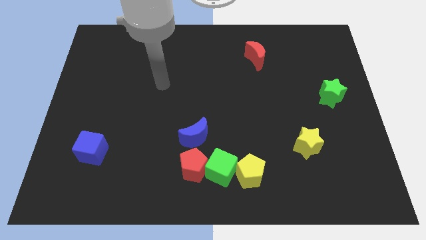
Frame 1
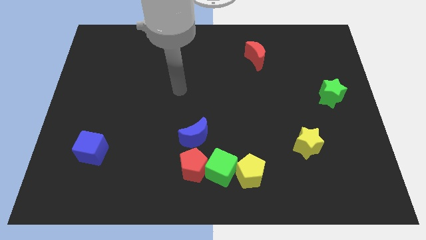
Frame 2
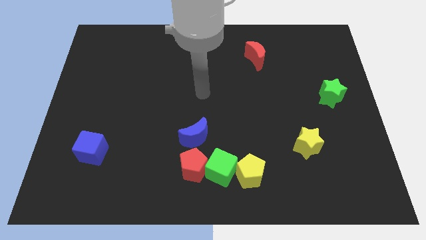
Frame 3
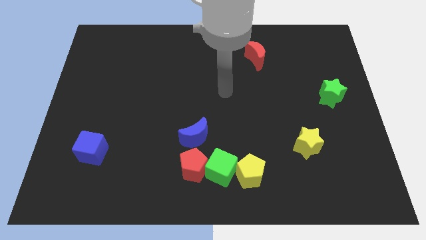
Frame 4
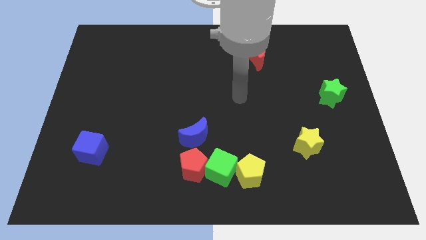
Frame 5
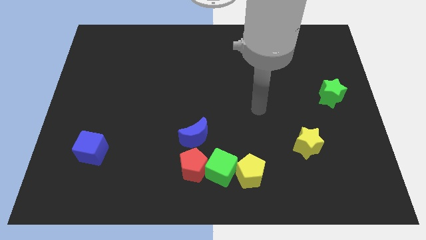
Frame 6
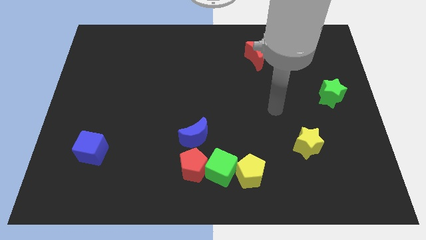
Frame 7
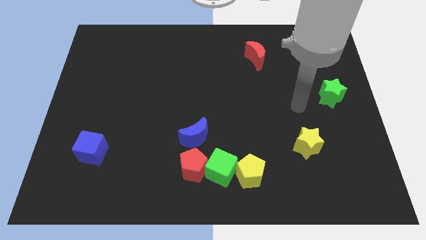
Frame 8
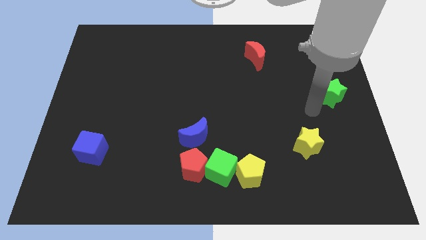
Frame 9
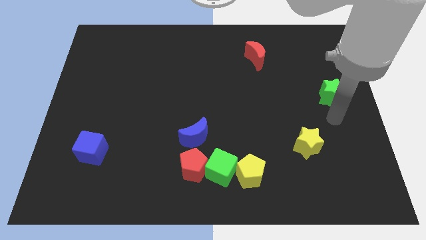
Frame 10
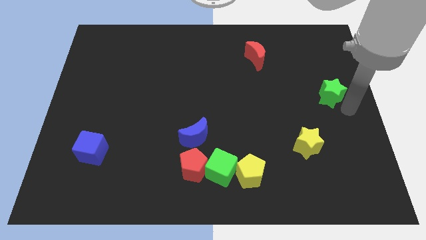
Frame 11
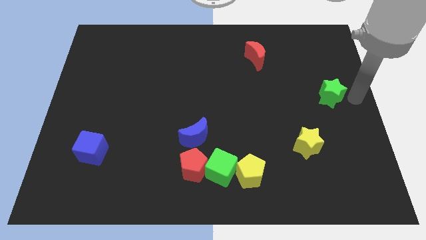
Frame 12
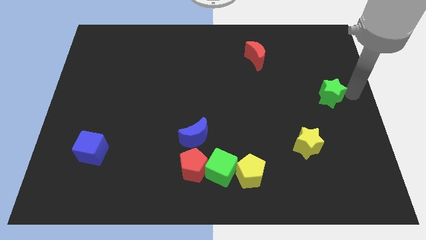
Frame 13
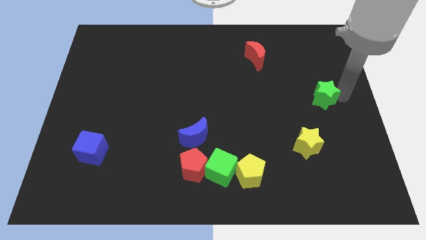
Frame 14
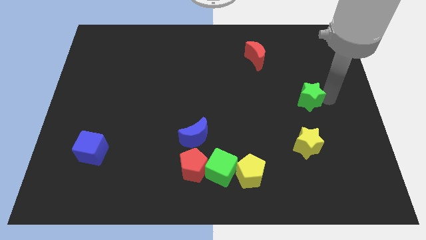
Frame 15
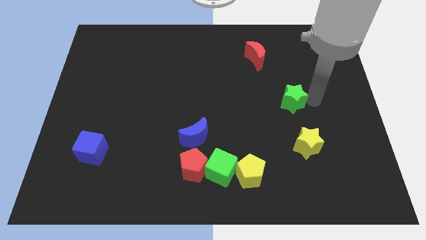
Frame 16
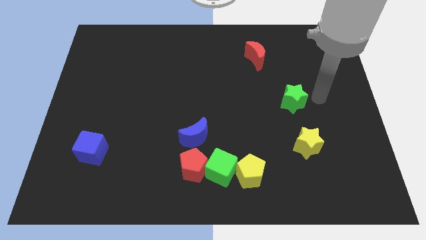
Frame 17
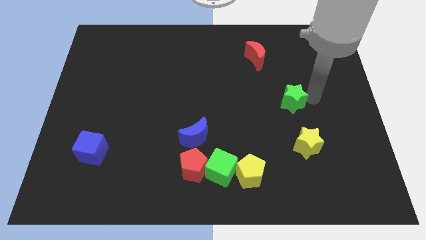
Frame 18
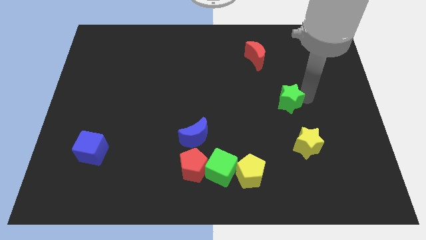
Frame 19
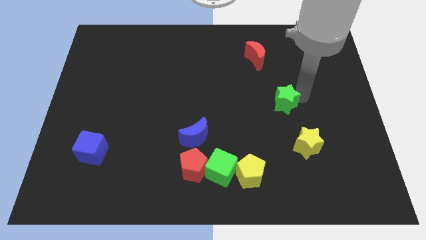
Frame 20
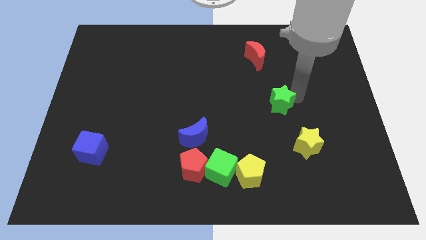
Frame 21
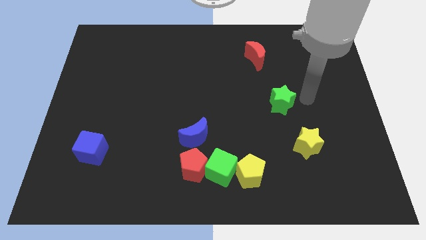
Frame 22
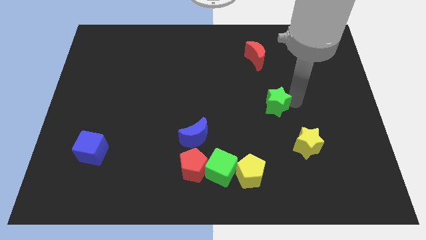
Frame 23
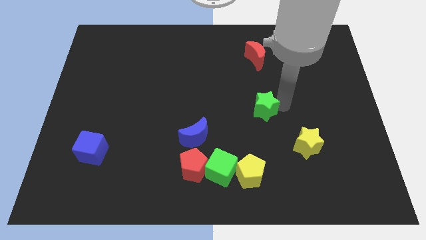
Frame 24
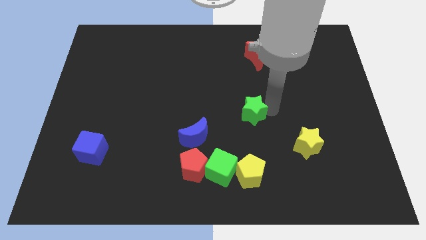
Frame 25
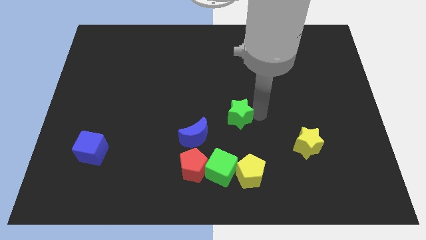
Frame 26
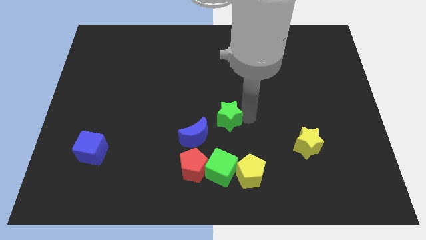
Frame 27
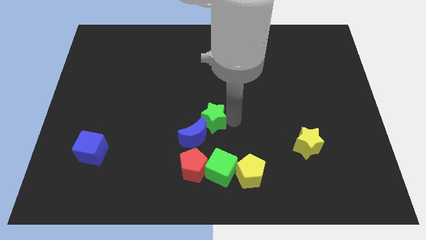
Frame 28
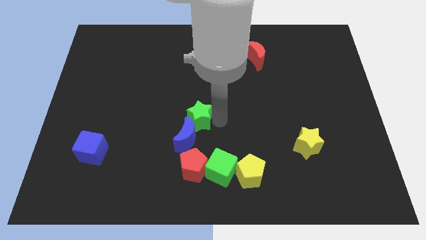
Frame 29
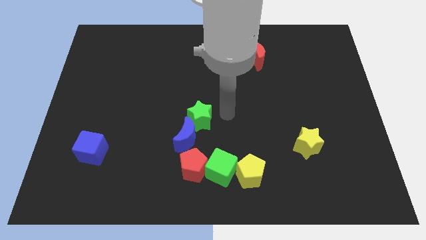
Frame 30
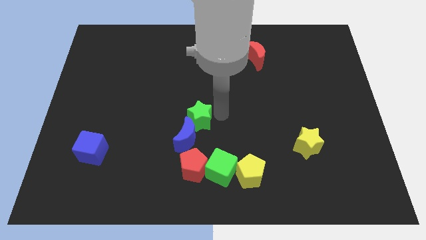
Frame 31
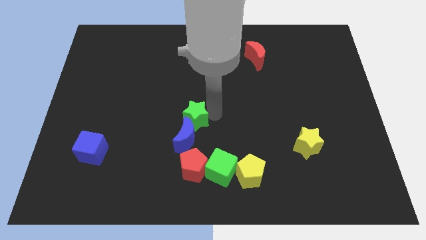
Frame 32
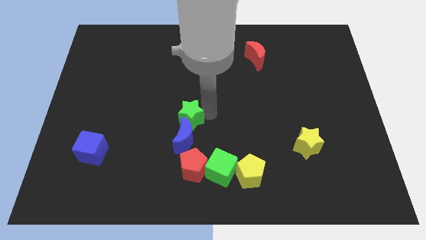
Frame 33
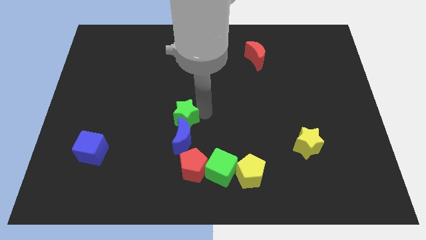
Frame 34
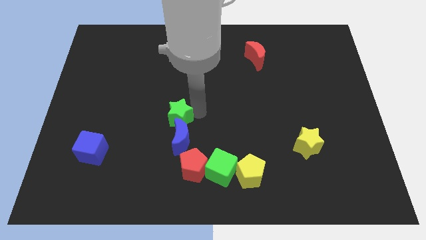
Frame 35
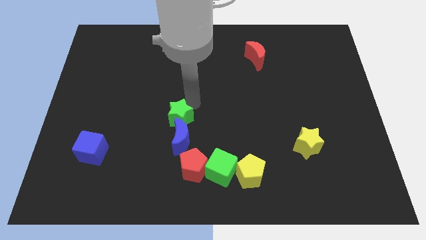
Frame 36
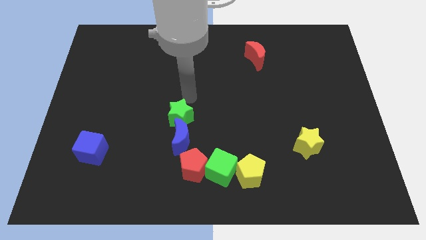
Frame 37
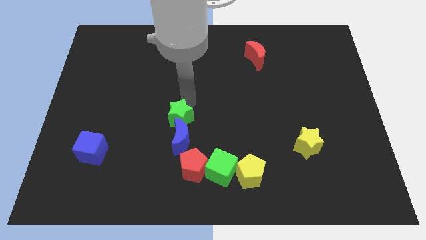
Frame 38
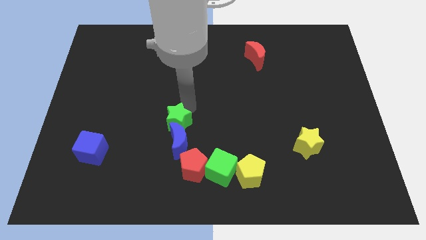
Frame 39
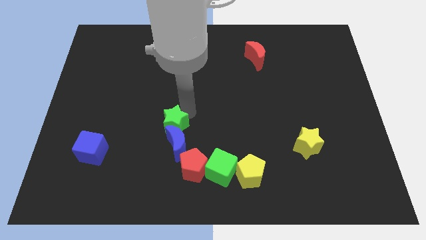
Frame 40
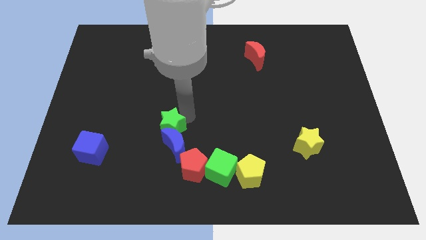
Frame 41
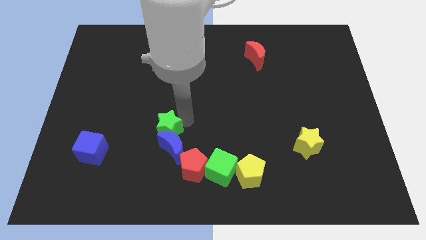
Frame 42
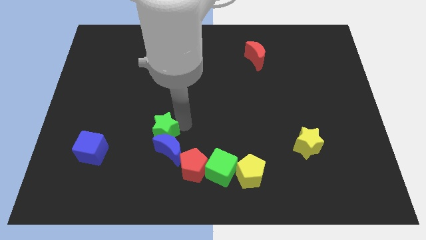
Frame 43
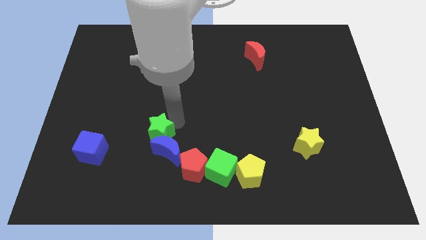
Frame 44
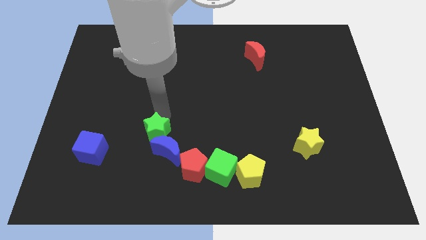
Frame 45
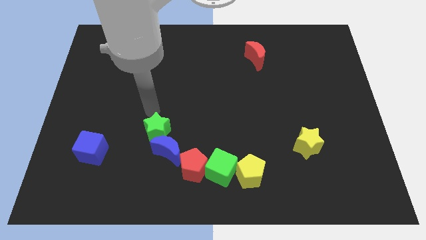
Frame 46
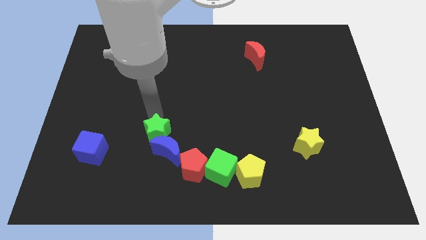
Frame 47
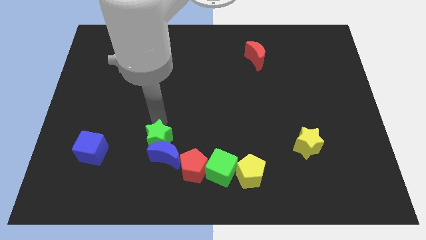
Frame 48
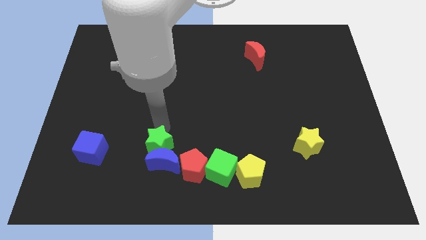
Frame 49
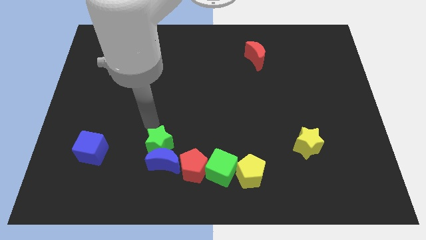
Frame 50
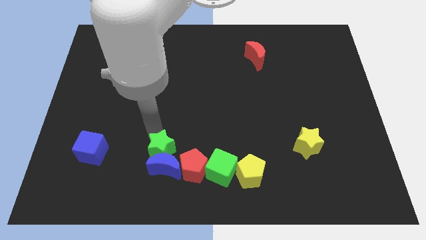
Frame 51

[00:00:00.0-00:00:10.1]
put the green star to the left side of the green cube

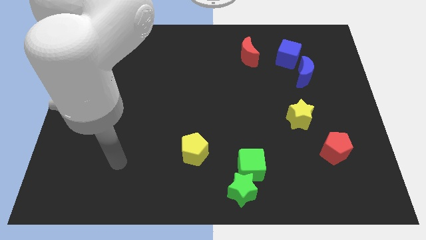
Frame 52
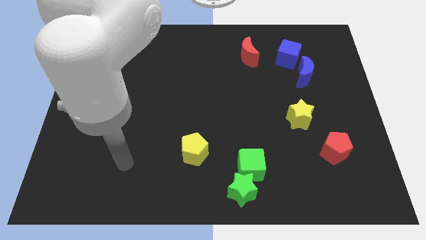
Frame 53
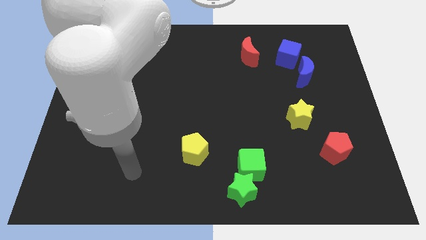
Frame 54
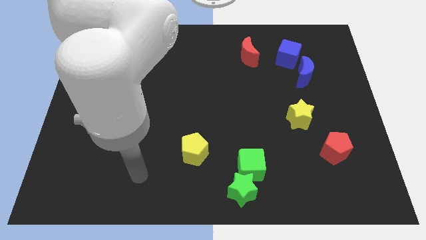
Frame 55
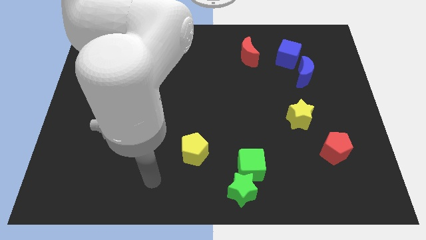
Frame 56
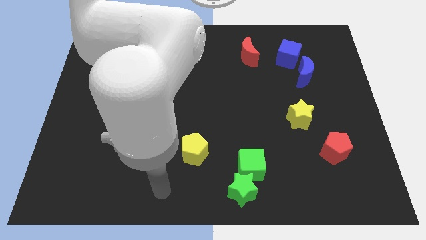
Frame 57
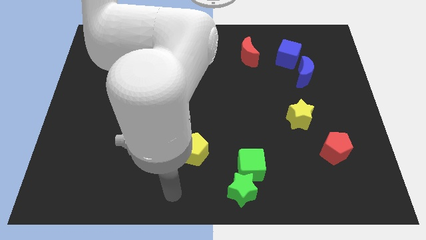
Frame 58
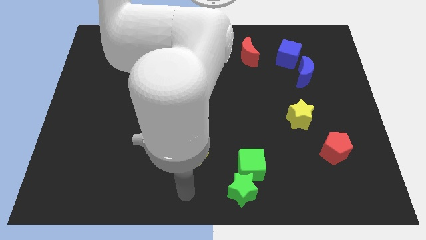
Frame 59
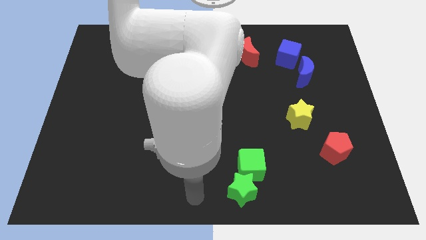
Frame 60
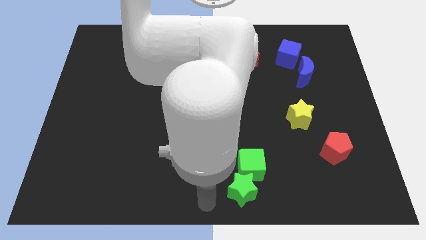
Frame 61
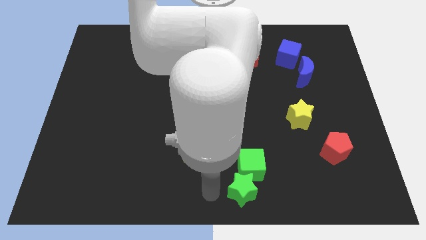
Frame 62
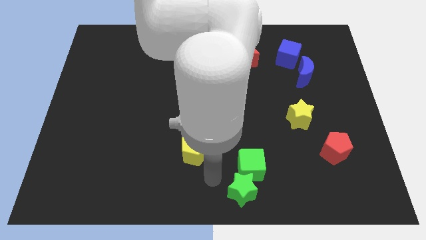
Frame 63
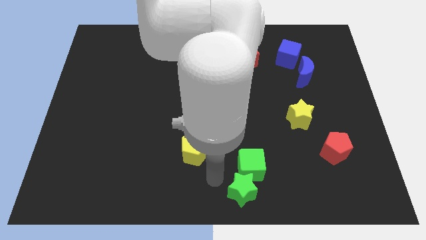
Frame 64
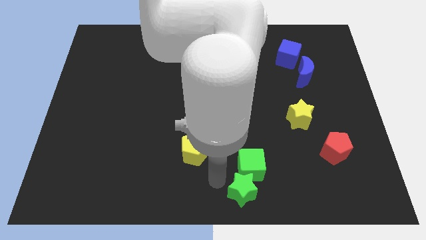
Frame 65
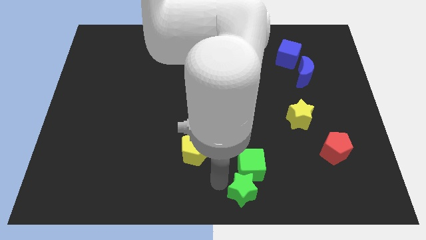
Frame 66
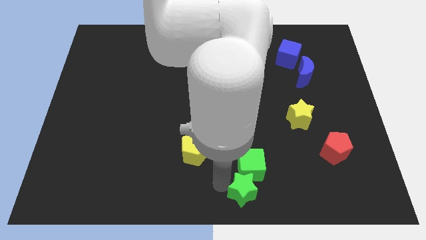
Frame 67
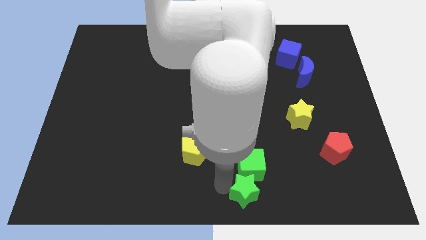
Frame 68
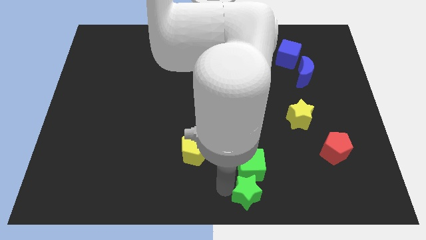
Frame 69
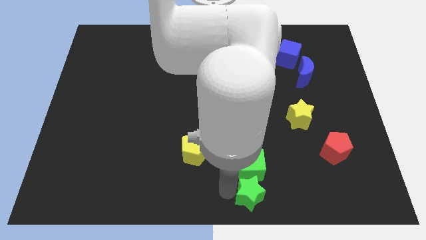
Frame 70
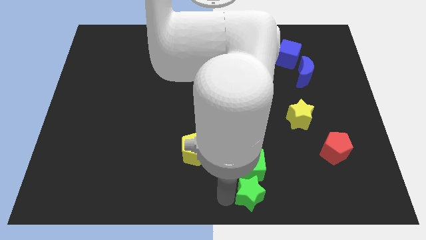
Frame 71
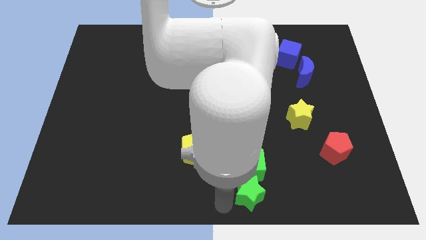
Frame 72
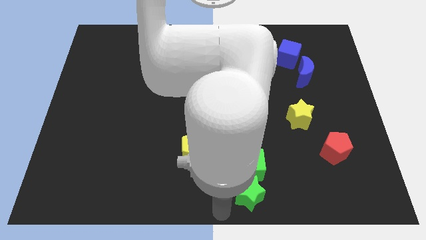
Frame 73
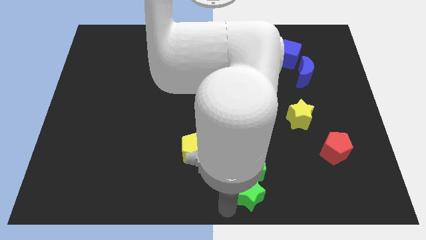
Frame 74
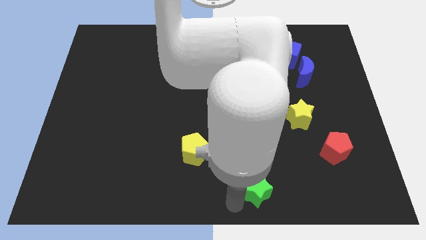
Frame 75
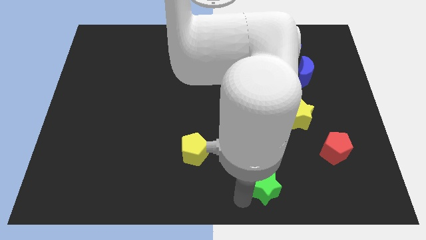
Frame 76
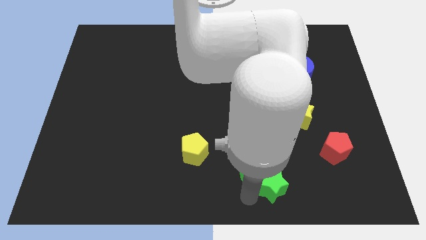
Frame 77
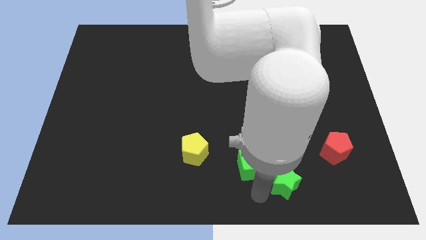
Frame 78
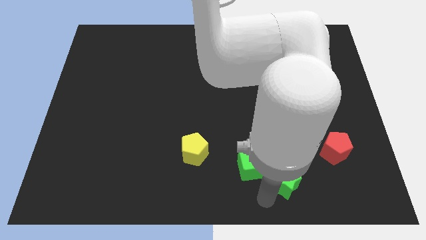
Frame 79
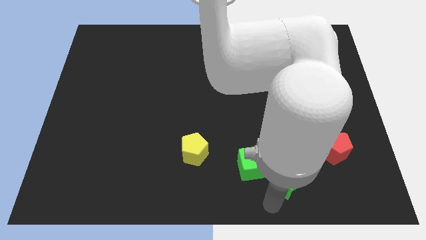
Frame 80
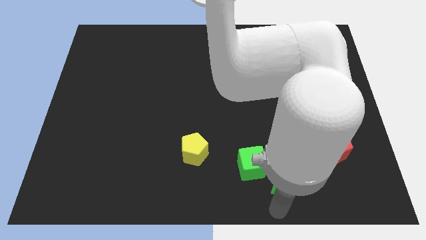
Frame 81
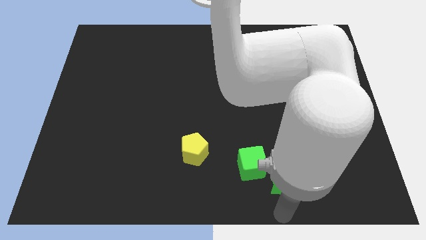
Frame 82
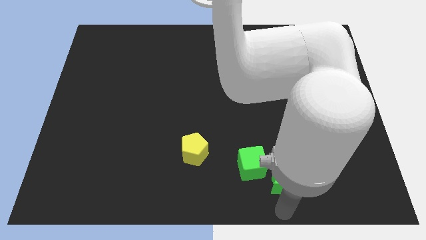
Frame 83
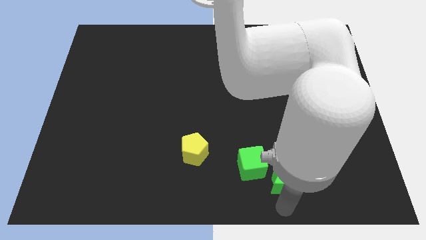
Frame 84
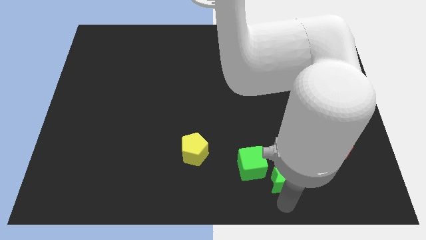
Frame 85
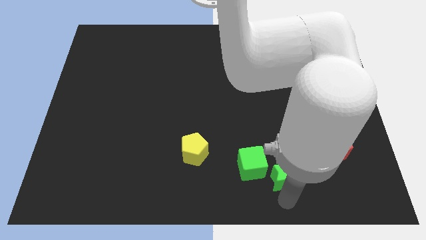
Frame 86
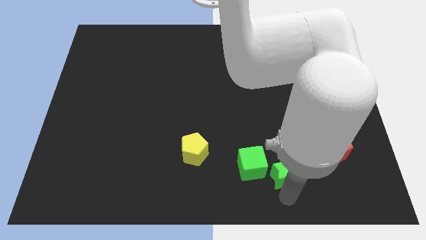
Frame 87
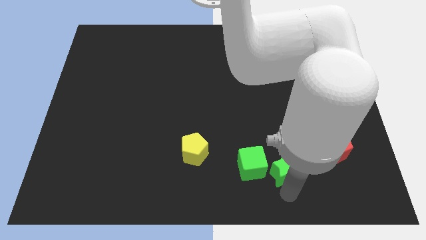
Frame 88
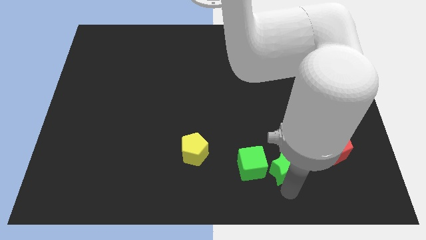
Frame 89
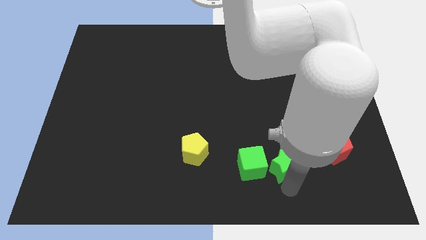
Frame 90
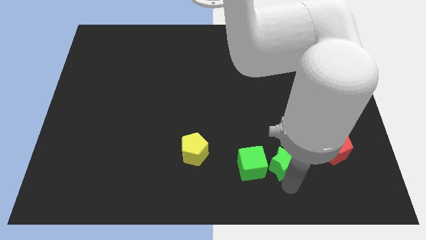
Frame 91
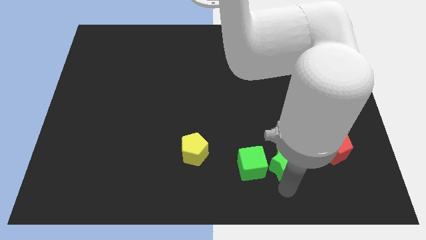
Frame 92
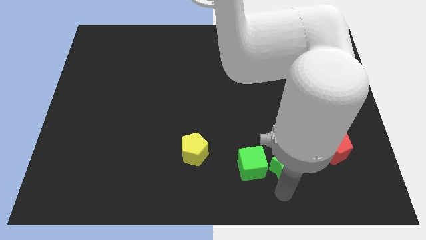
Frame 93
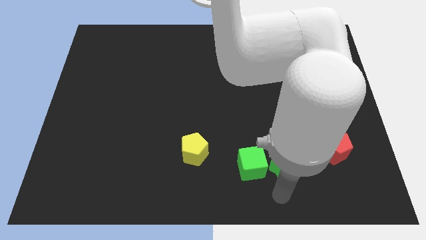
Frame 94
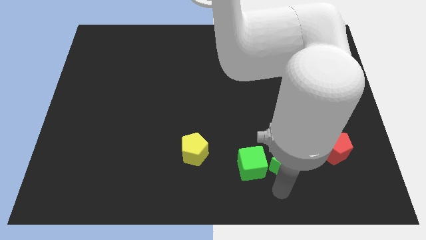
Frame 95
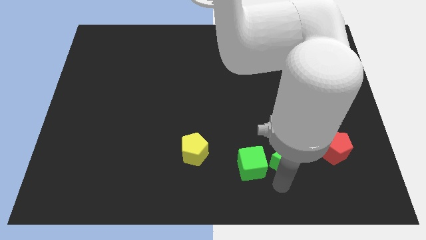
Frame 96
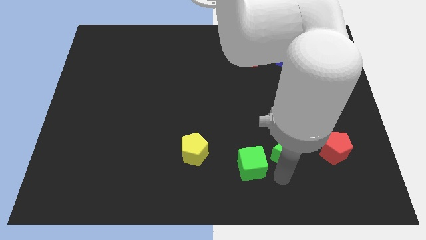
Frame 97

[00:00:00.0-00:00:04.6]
move the green star to the bottom left side of the yellow star
